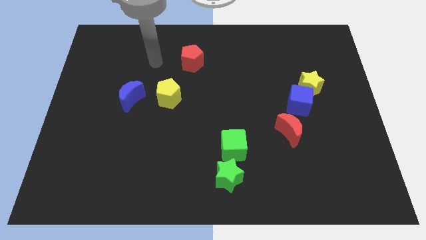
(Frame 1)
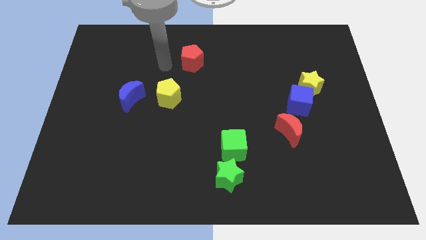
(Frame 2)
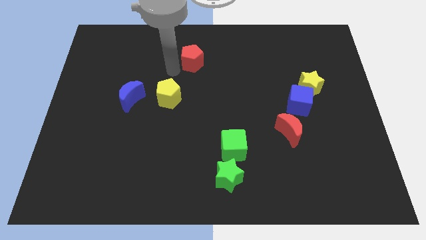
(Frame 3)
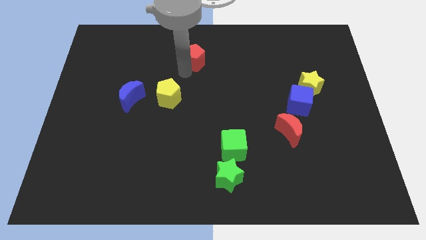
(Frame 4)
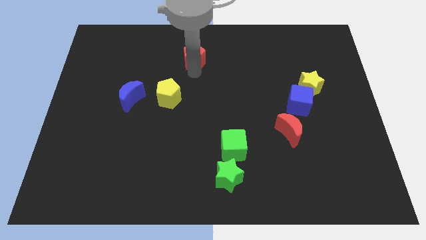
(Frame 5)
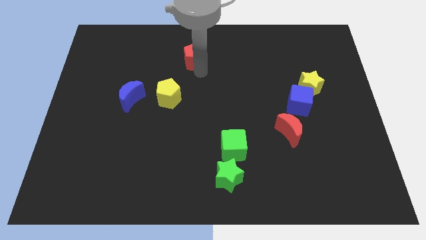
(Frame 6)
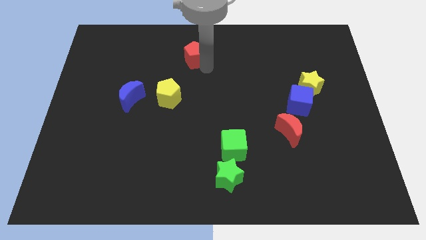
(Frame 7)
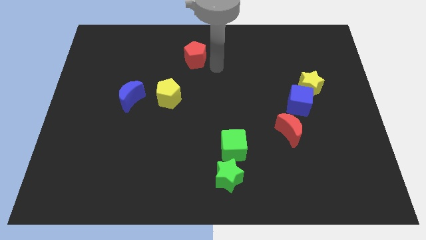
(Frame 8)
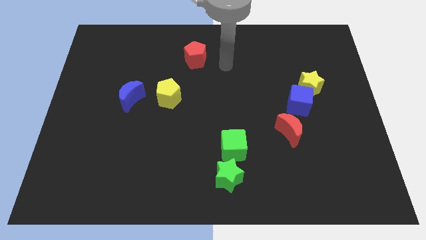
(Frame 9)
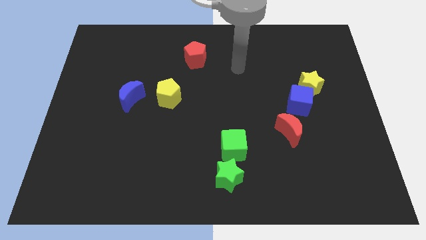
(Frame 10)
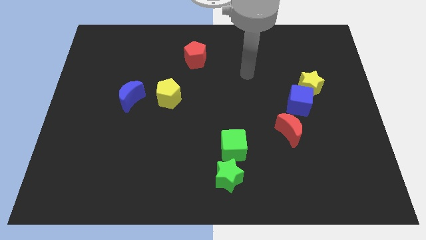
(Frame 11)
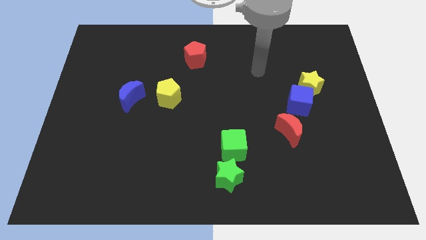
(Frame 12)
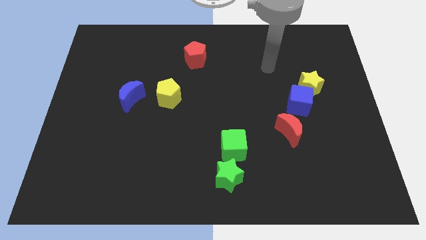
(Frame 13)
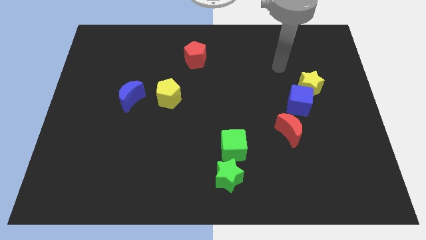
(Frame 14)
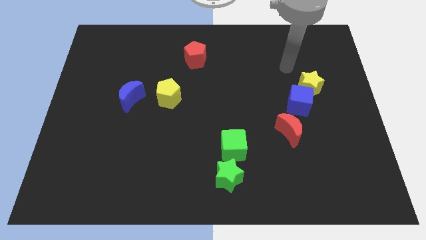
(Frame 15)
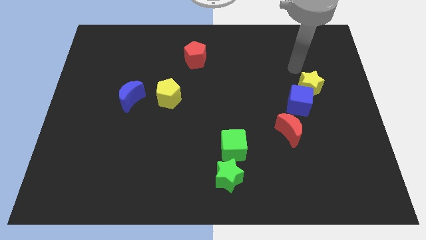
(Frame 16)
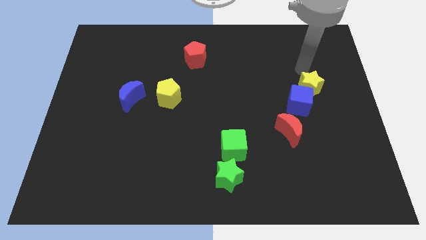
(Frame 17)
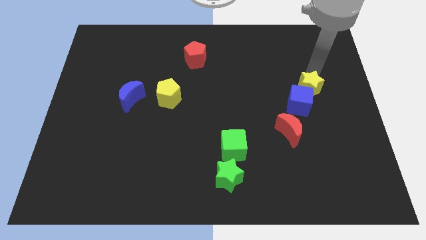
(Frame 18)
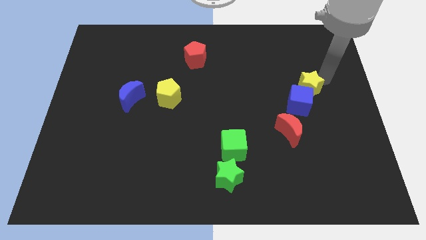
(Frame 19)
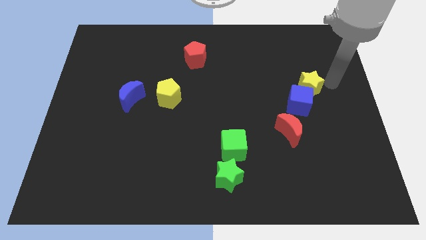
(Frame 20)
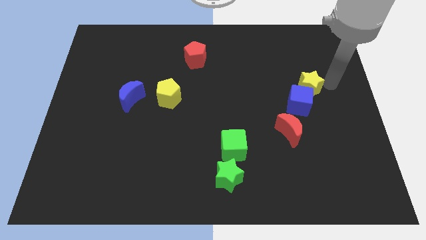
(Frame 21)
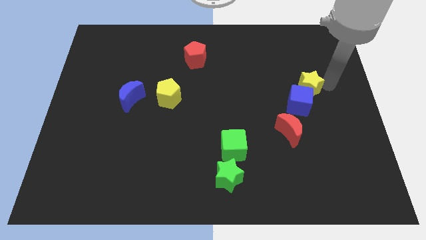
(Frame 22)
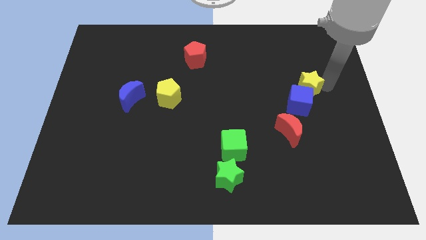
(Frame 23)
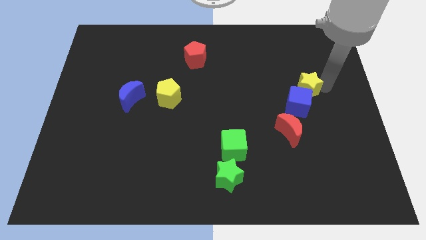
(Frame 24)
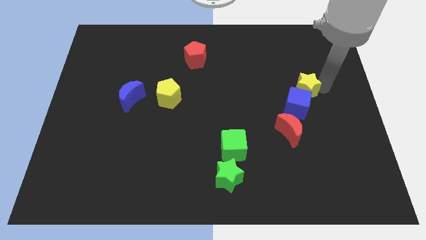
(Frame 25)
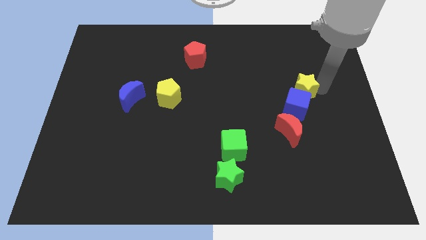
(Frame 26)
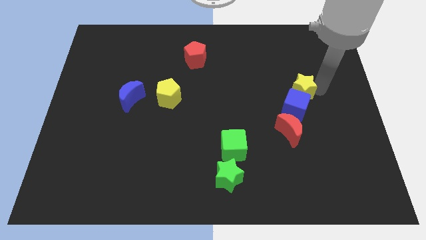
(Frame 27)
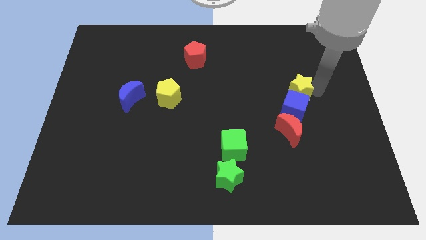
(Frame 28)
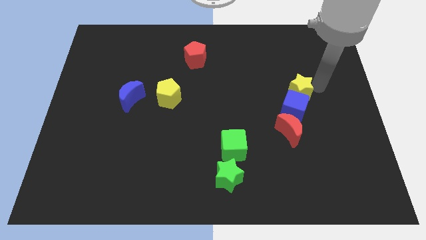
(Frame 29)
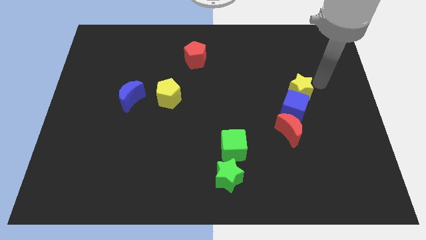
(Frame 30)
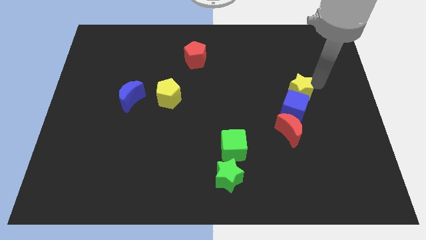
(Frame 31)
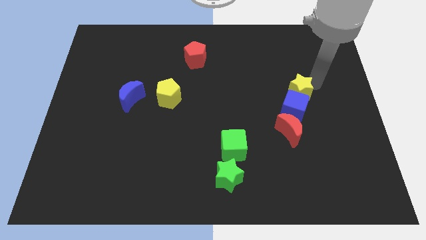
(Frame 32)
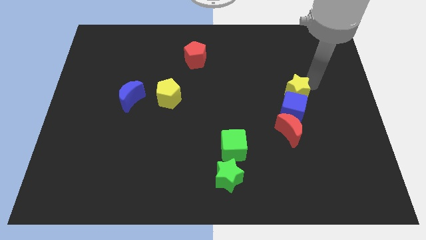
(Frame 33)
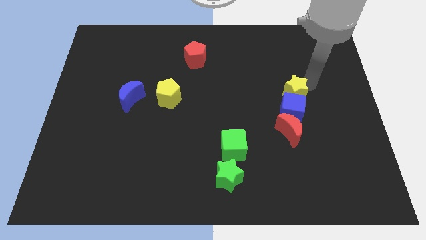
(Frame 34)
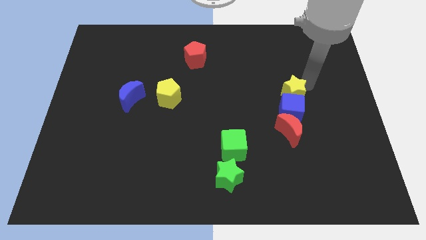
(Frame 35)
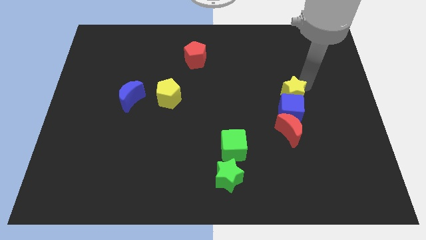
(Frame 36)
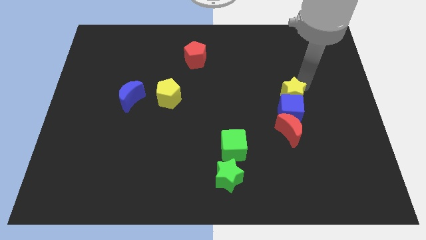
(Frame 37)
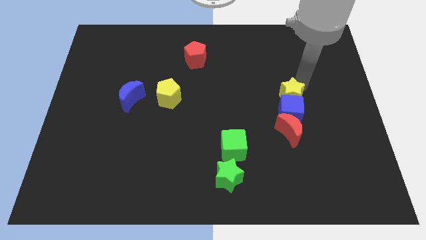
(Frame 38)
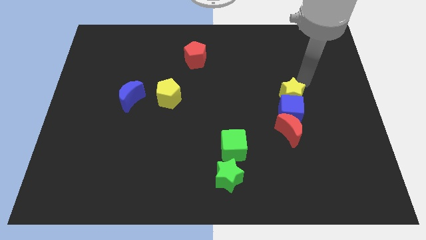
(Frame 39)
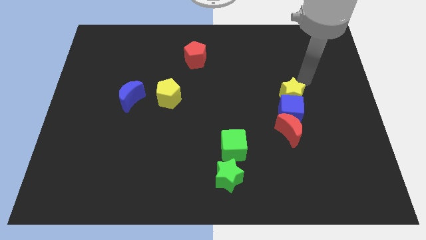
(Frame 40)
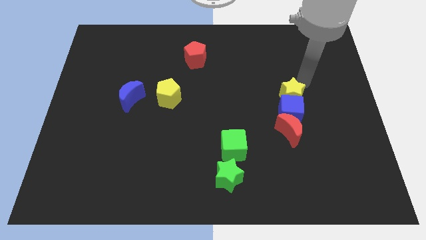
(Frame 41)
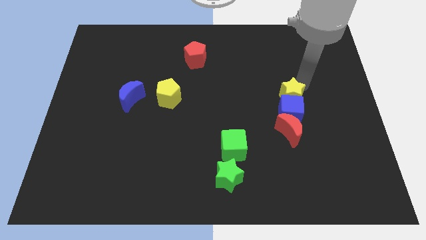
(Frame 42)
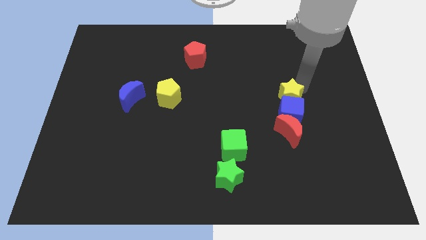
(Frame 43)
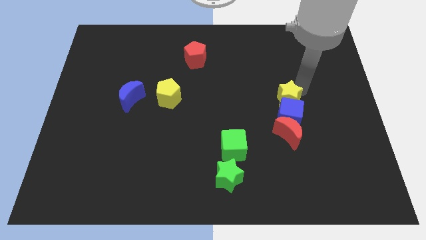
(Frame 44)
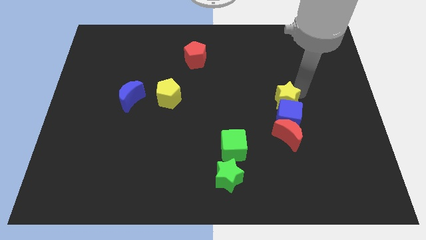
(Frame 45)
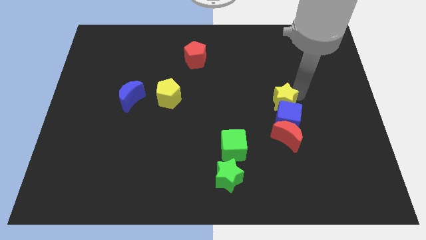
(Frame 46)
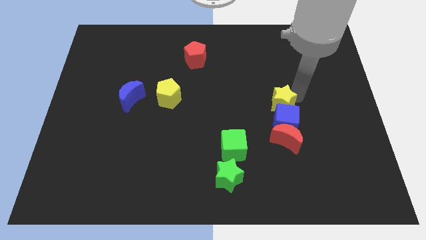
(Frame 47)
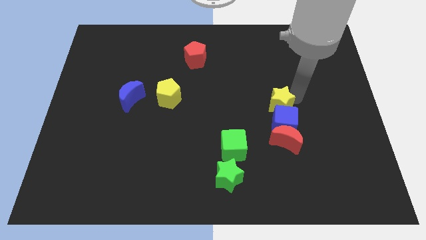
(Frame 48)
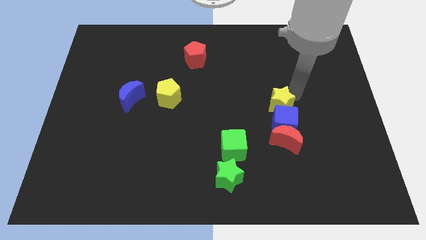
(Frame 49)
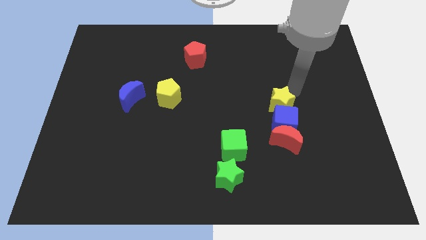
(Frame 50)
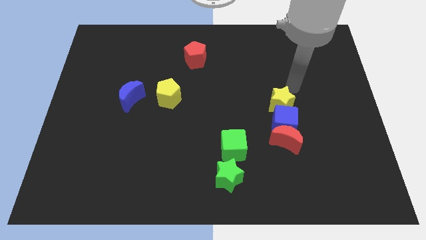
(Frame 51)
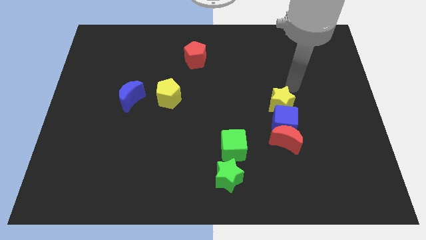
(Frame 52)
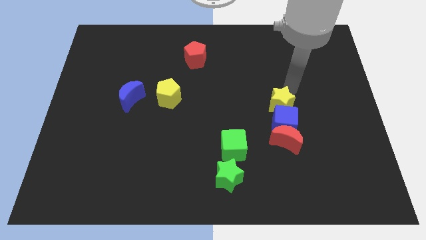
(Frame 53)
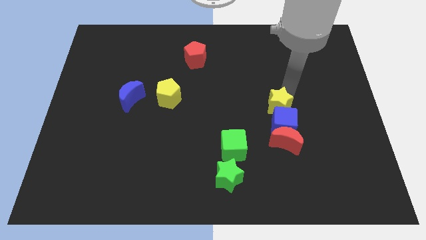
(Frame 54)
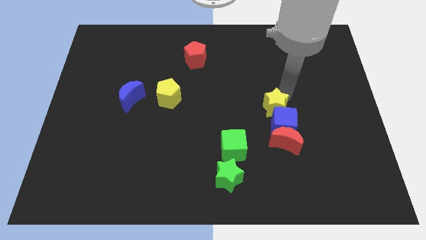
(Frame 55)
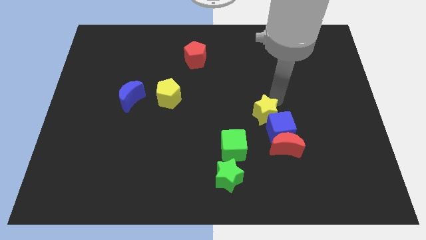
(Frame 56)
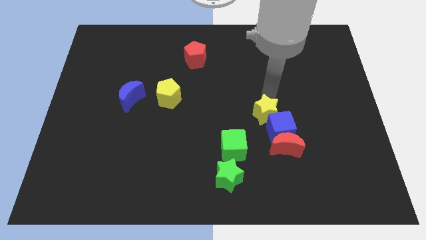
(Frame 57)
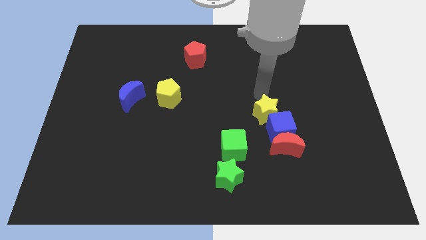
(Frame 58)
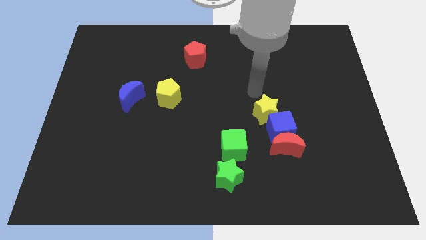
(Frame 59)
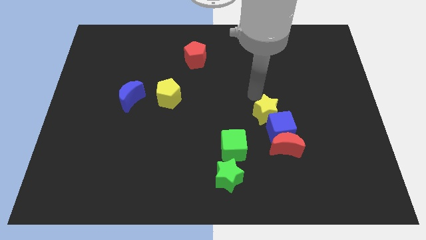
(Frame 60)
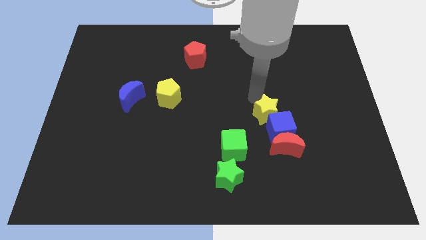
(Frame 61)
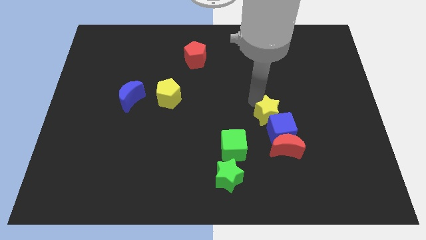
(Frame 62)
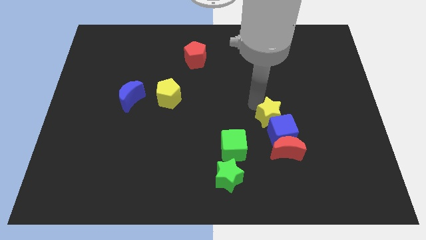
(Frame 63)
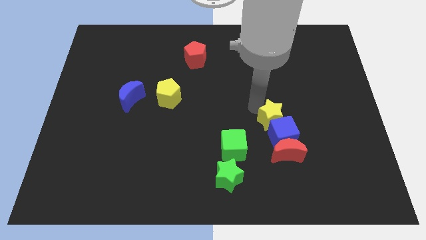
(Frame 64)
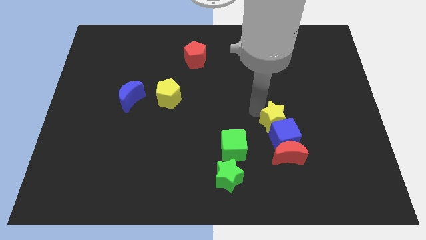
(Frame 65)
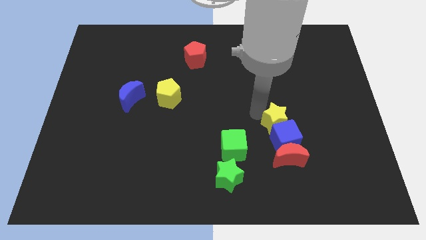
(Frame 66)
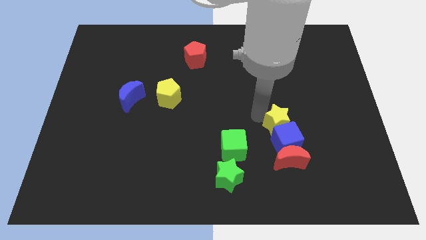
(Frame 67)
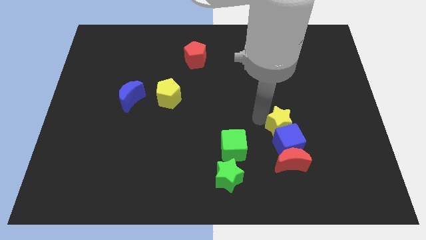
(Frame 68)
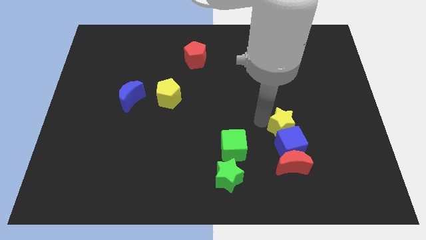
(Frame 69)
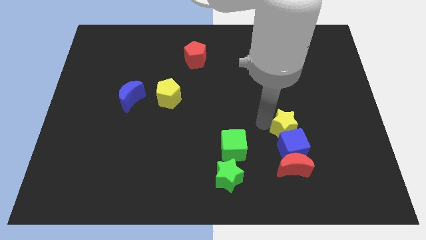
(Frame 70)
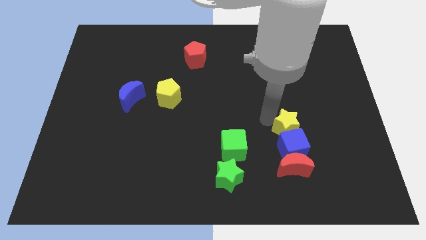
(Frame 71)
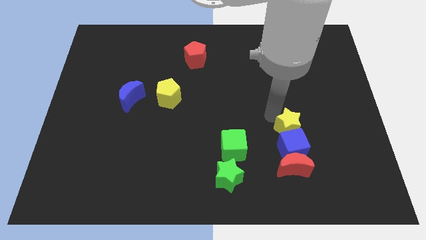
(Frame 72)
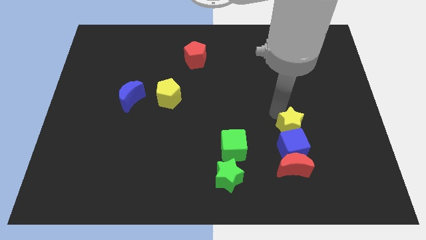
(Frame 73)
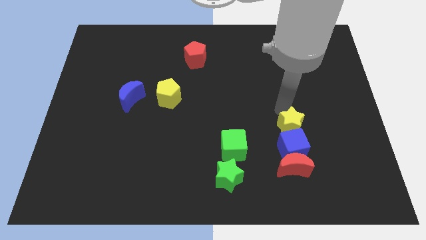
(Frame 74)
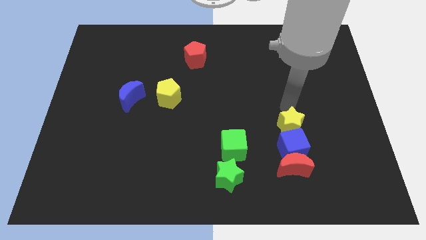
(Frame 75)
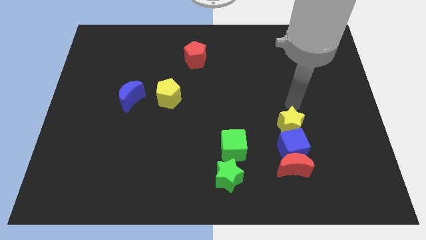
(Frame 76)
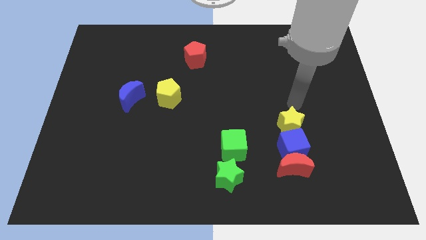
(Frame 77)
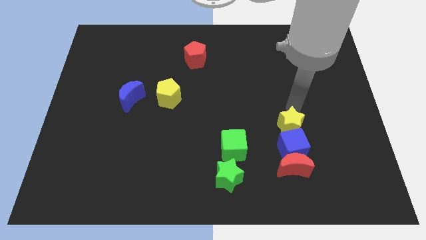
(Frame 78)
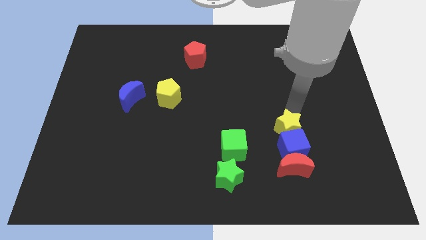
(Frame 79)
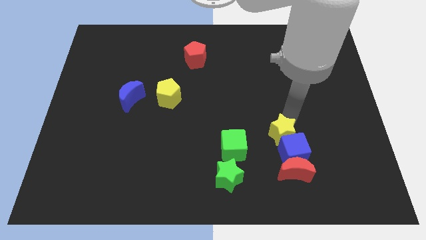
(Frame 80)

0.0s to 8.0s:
put the yellow star right of the green cube
